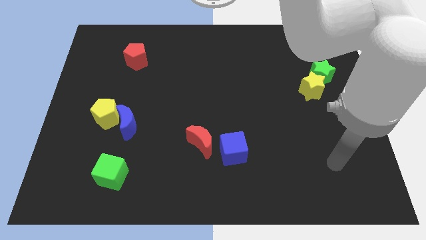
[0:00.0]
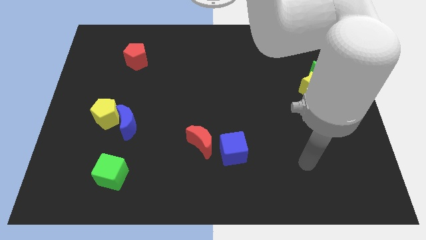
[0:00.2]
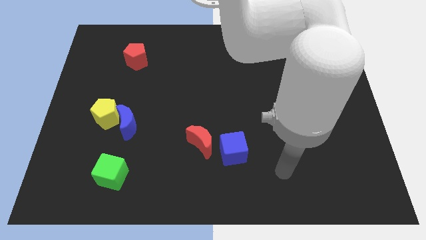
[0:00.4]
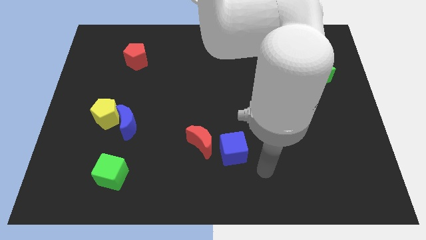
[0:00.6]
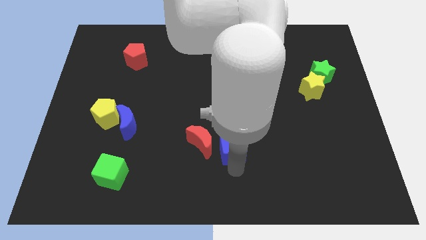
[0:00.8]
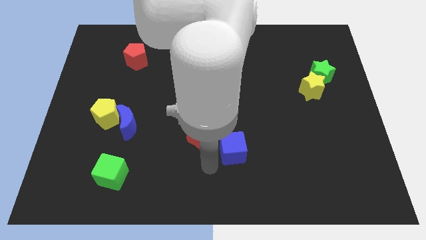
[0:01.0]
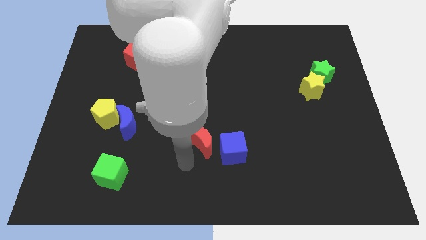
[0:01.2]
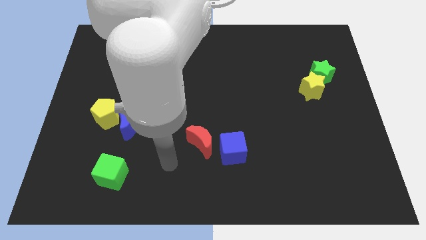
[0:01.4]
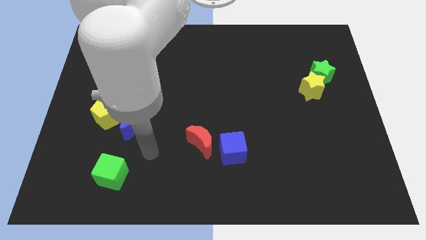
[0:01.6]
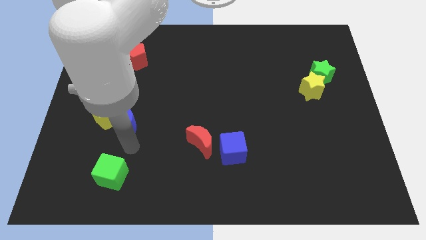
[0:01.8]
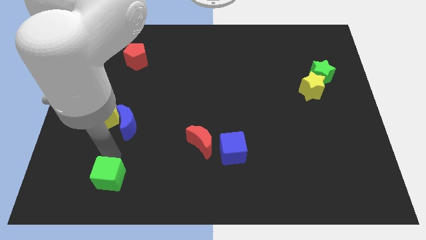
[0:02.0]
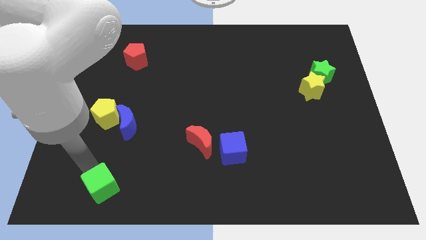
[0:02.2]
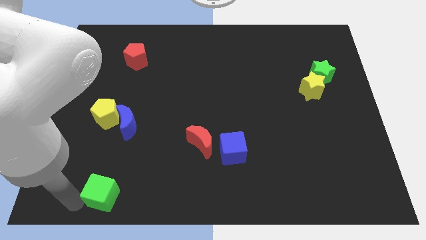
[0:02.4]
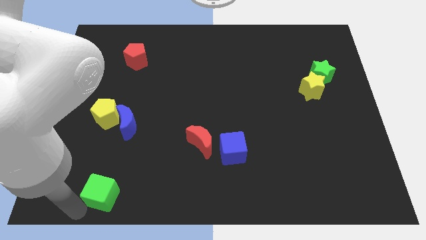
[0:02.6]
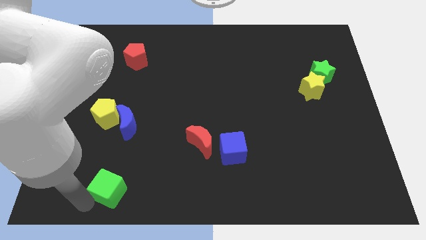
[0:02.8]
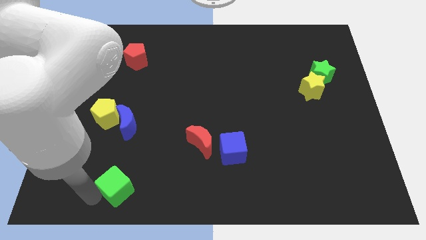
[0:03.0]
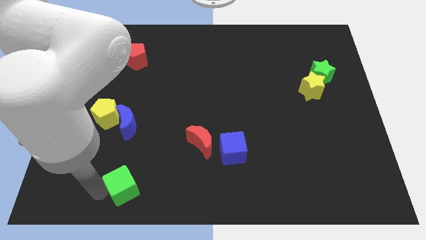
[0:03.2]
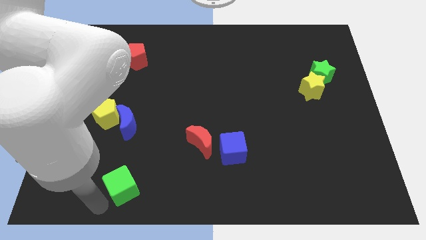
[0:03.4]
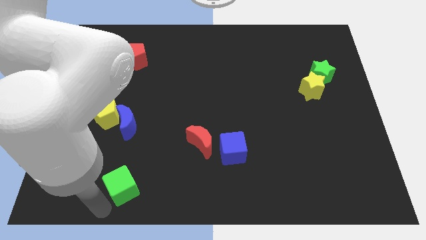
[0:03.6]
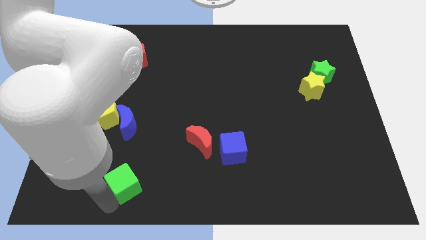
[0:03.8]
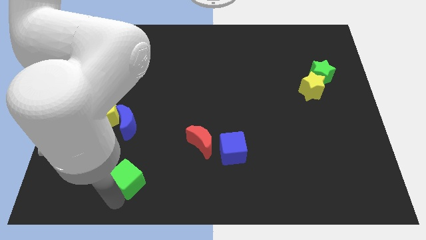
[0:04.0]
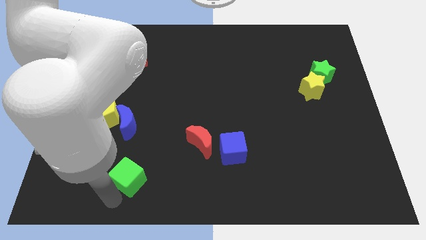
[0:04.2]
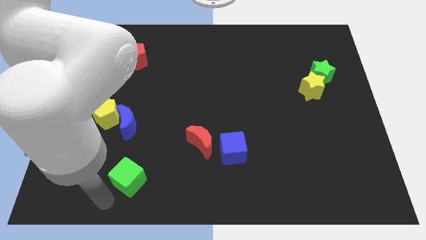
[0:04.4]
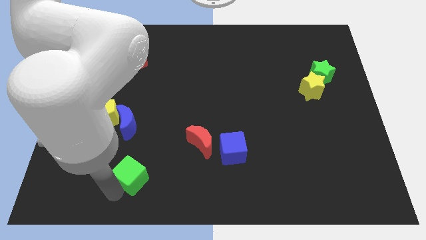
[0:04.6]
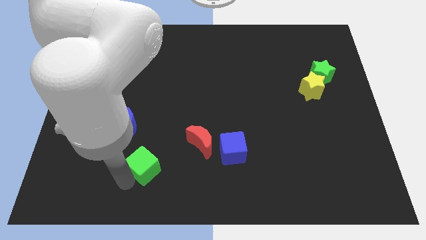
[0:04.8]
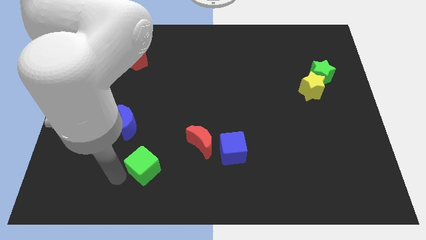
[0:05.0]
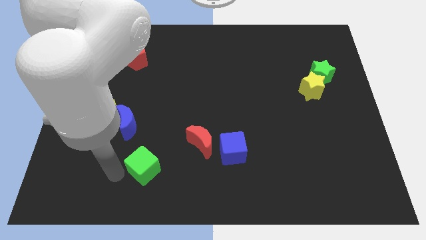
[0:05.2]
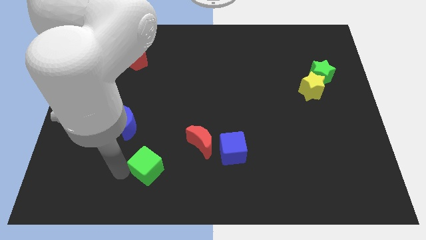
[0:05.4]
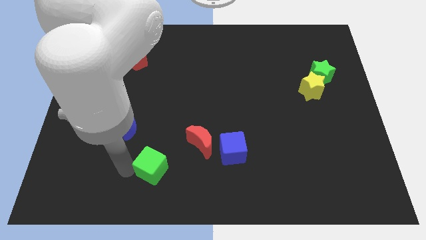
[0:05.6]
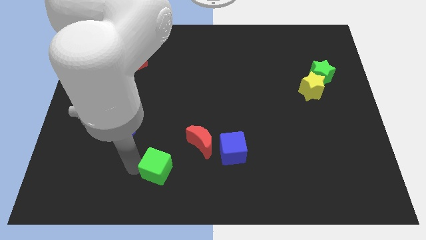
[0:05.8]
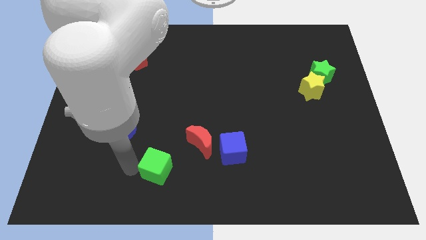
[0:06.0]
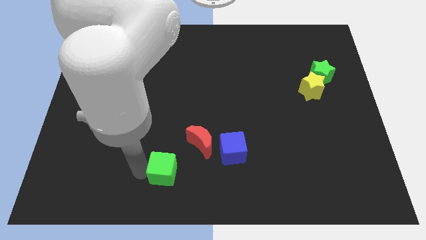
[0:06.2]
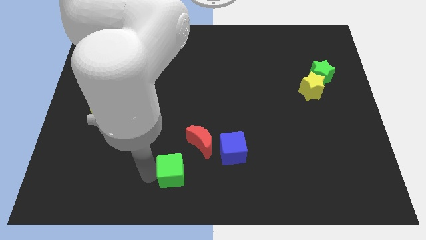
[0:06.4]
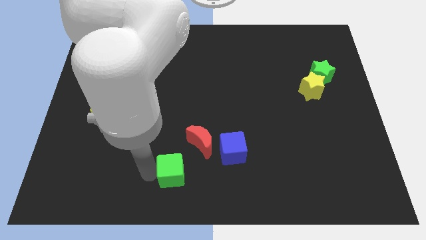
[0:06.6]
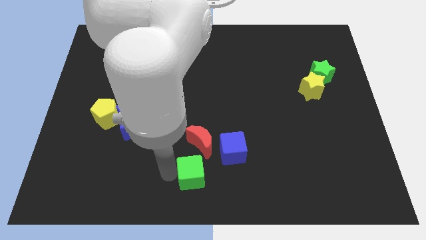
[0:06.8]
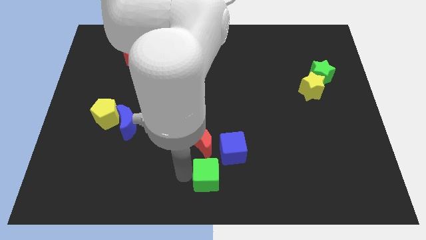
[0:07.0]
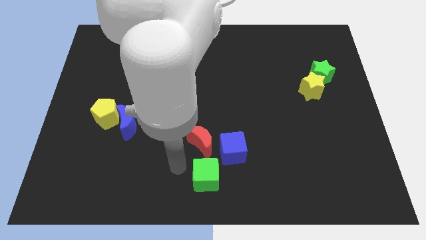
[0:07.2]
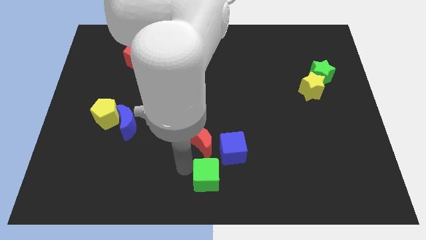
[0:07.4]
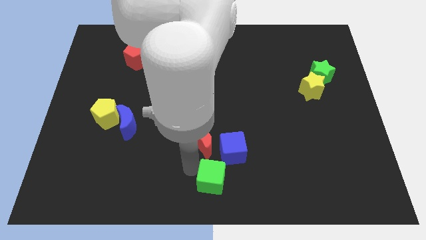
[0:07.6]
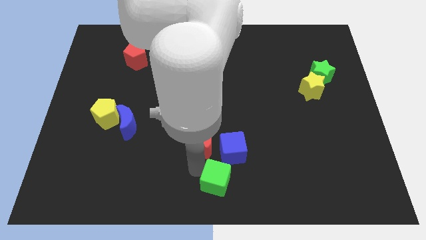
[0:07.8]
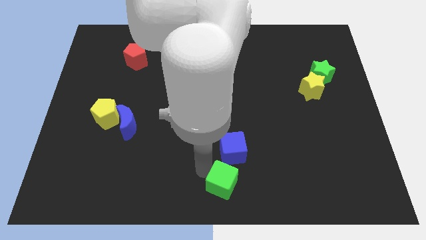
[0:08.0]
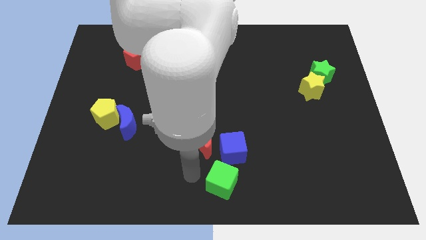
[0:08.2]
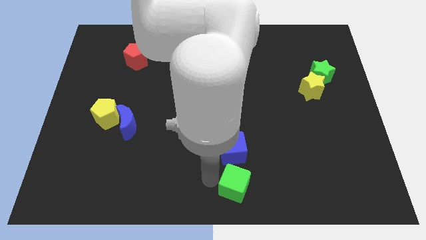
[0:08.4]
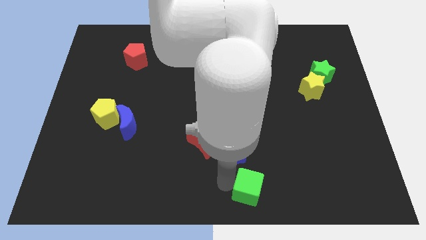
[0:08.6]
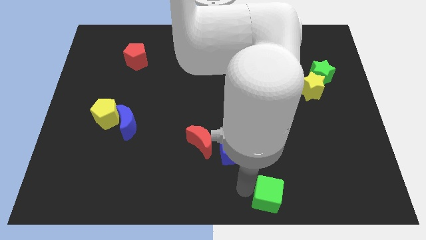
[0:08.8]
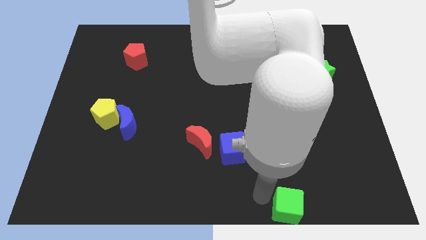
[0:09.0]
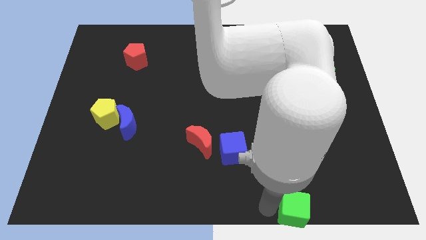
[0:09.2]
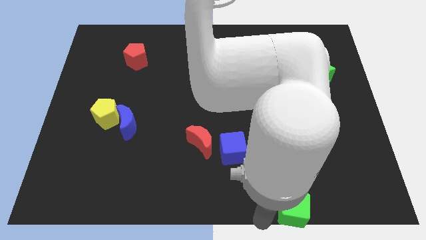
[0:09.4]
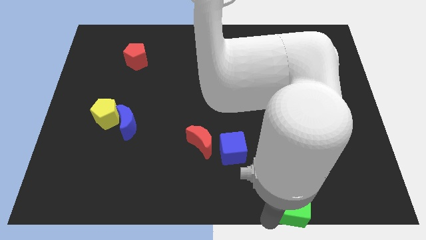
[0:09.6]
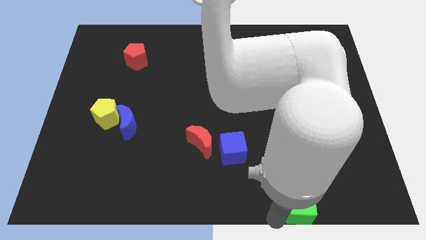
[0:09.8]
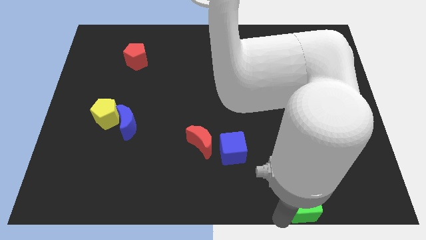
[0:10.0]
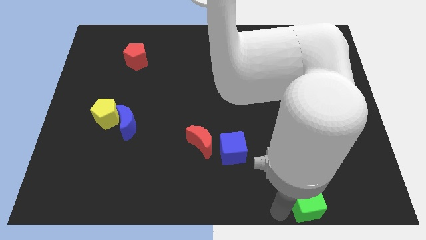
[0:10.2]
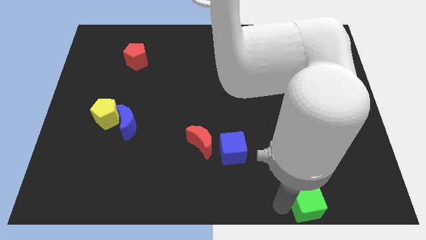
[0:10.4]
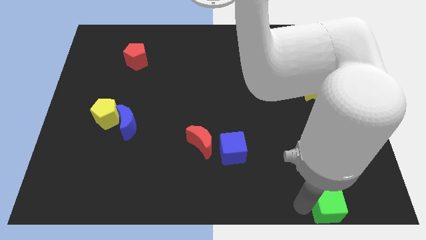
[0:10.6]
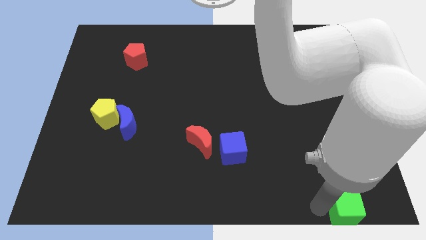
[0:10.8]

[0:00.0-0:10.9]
move the green cube to the bottom right

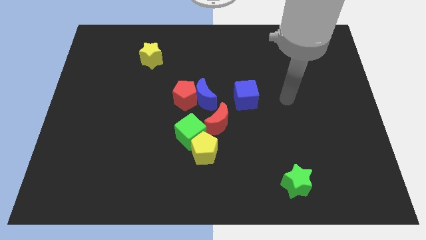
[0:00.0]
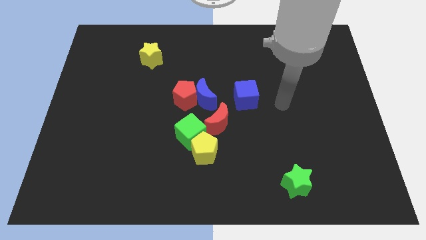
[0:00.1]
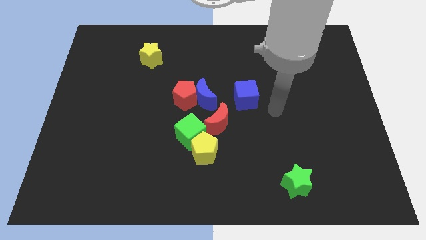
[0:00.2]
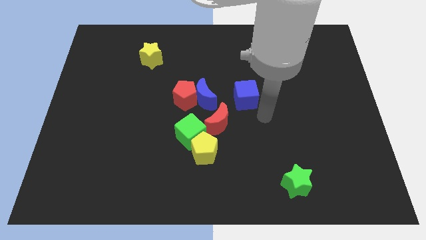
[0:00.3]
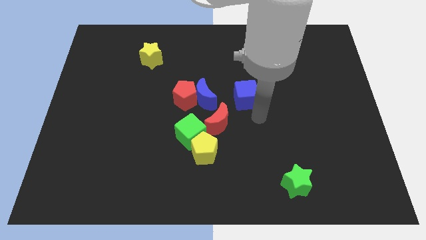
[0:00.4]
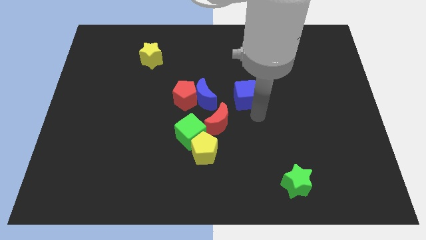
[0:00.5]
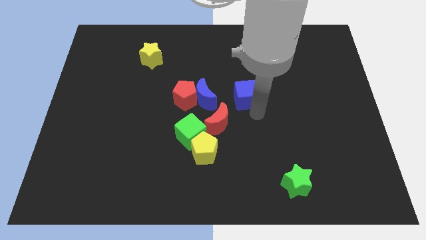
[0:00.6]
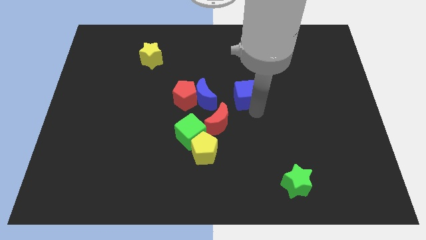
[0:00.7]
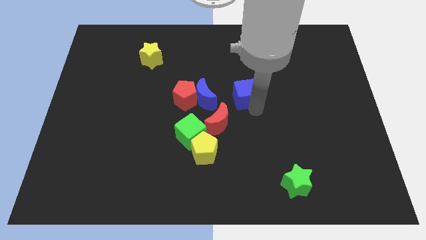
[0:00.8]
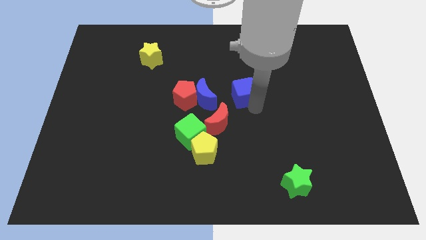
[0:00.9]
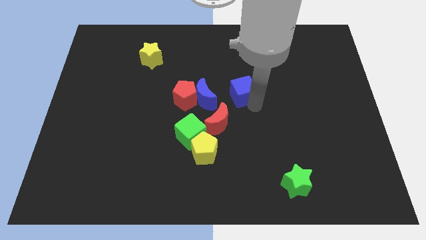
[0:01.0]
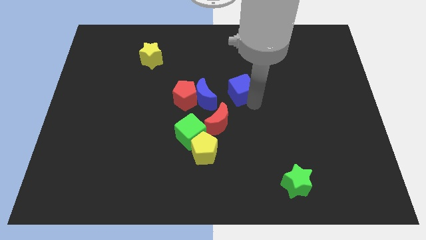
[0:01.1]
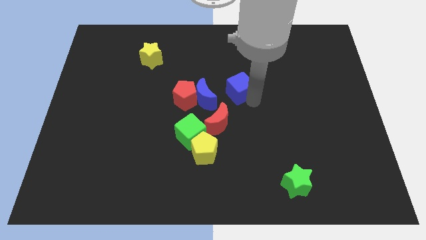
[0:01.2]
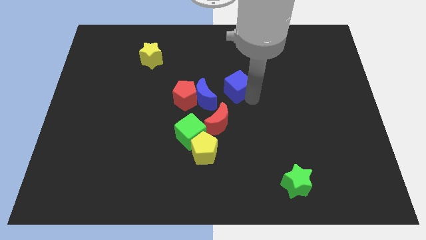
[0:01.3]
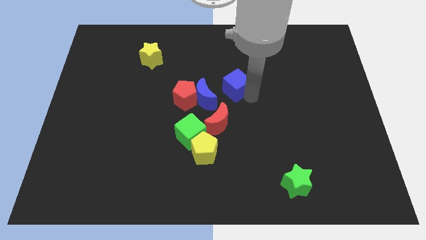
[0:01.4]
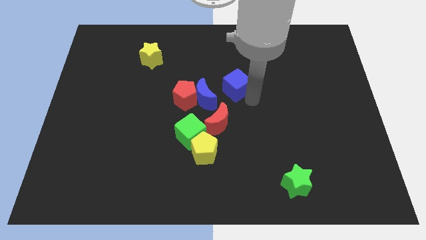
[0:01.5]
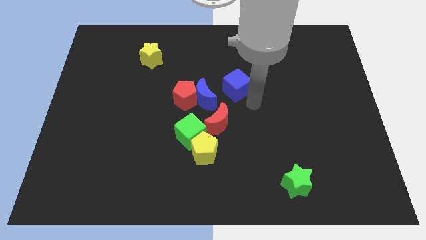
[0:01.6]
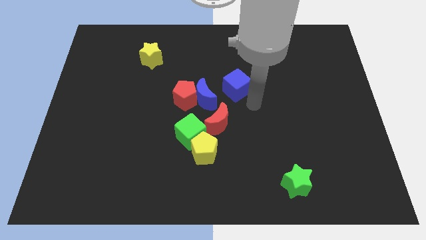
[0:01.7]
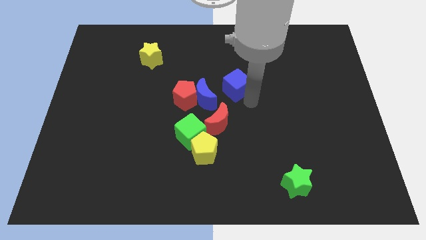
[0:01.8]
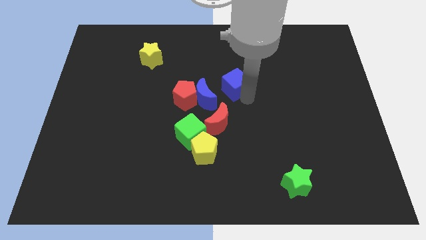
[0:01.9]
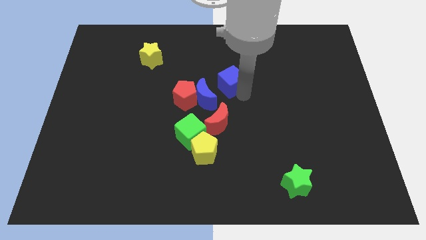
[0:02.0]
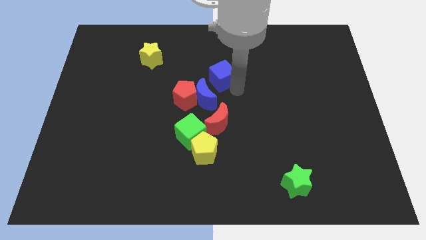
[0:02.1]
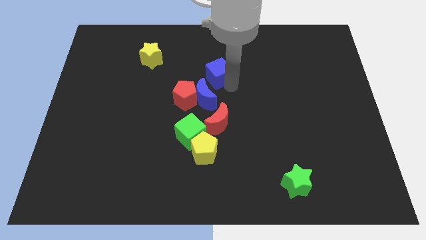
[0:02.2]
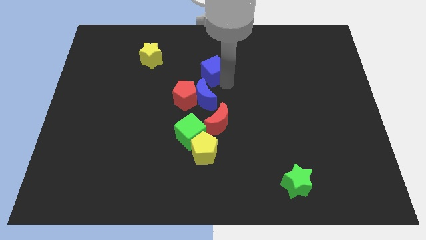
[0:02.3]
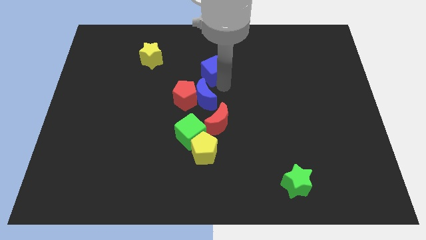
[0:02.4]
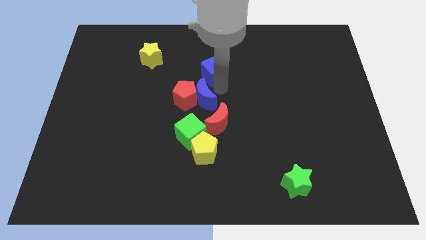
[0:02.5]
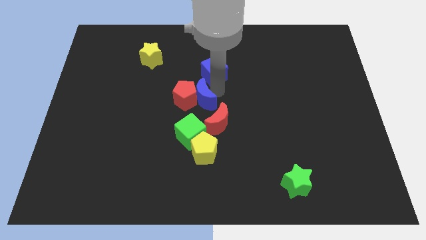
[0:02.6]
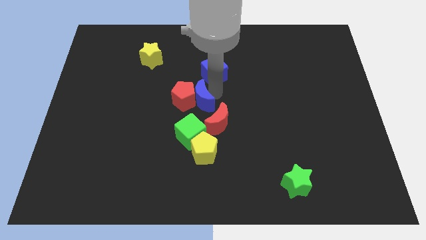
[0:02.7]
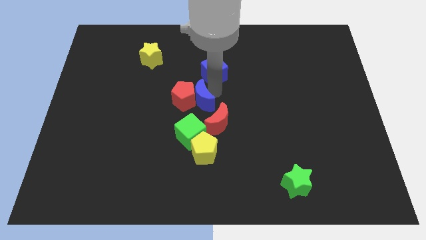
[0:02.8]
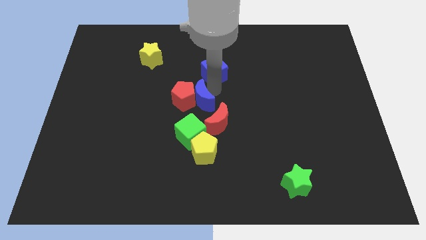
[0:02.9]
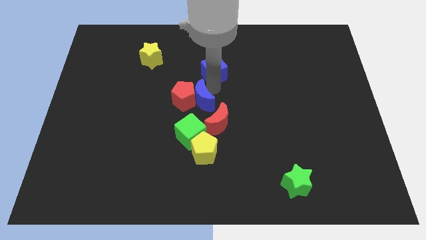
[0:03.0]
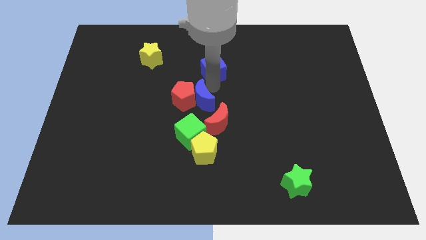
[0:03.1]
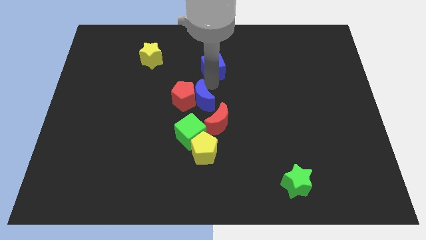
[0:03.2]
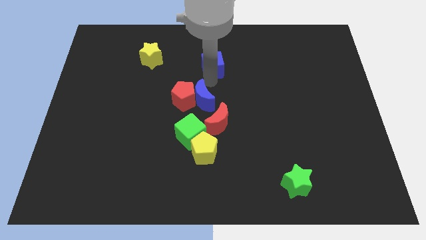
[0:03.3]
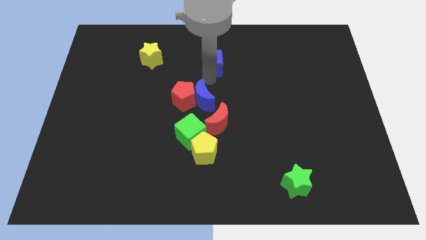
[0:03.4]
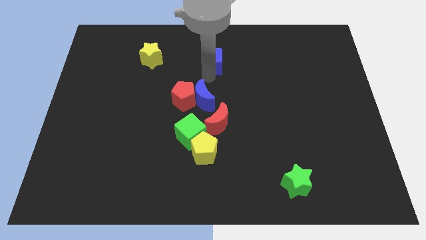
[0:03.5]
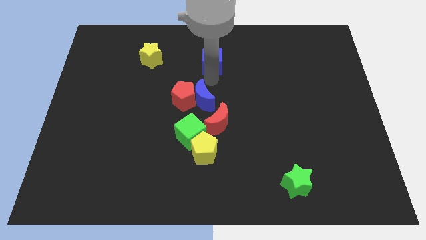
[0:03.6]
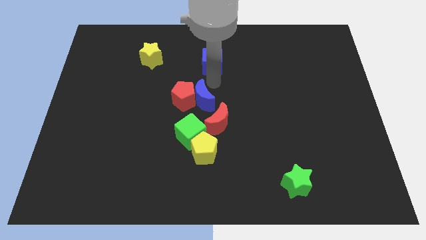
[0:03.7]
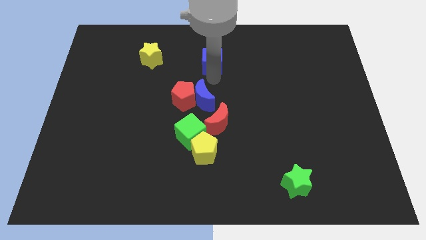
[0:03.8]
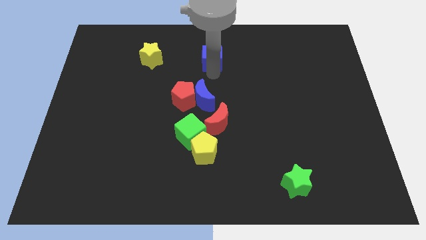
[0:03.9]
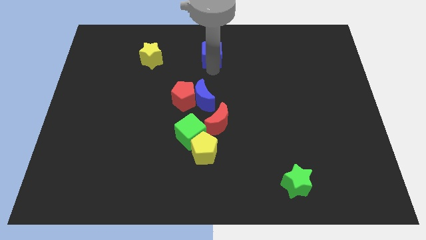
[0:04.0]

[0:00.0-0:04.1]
move the blue cube to the towards your base
